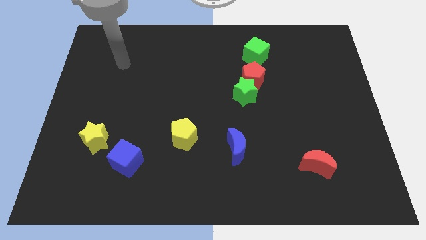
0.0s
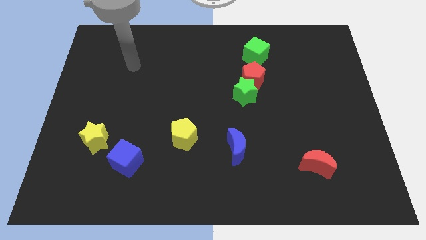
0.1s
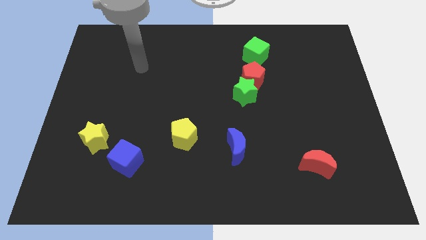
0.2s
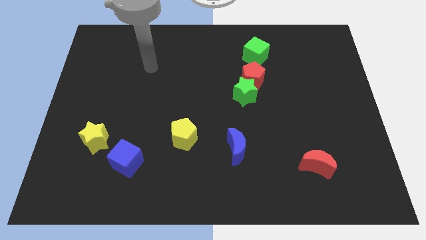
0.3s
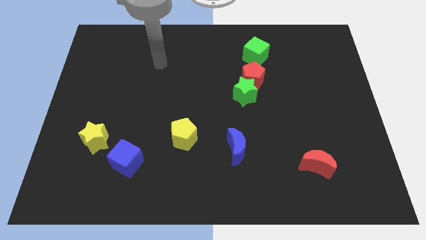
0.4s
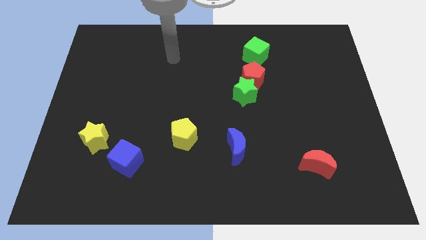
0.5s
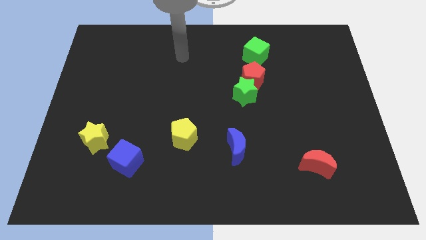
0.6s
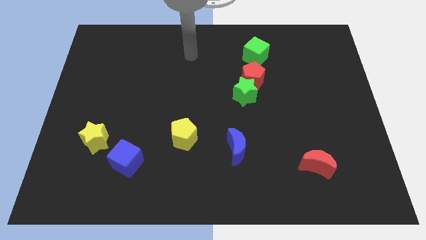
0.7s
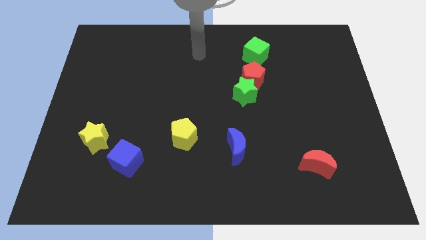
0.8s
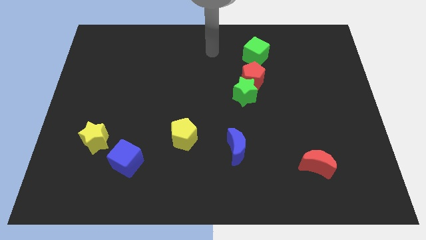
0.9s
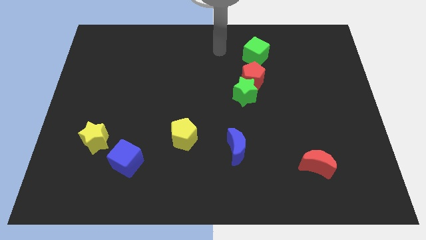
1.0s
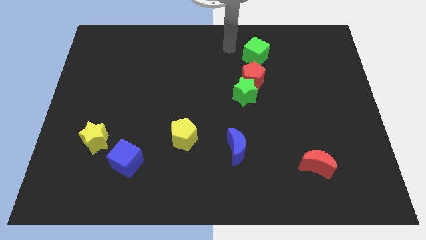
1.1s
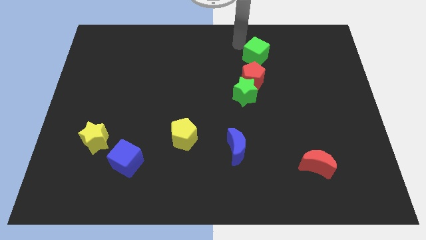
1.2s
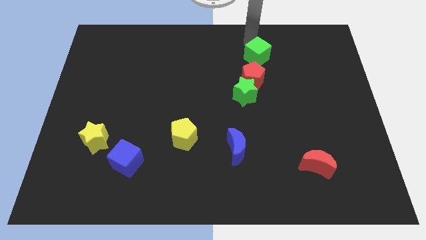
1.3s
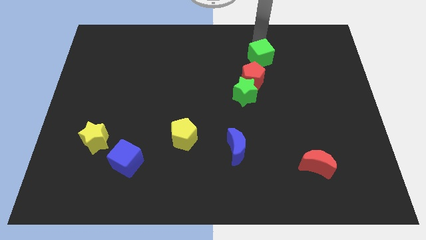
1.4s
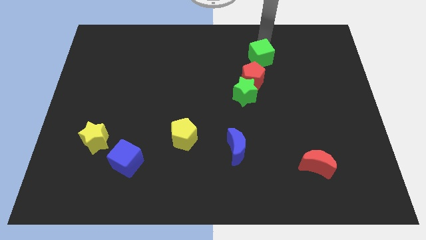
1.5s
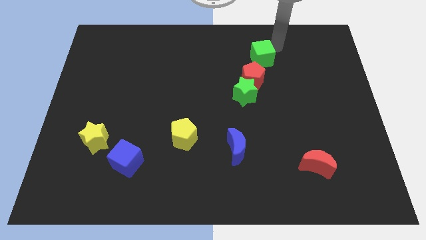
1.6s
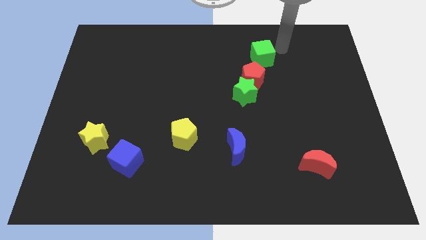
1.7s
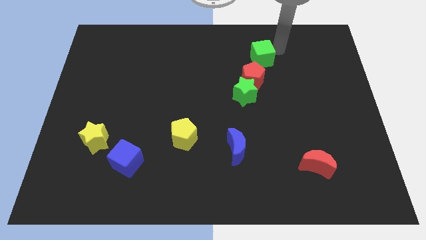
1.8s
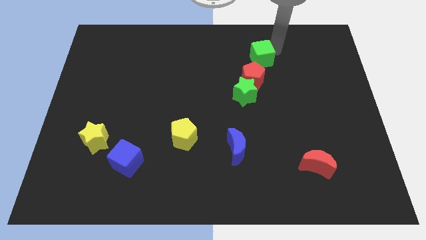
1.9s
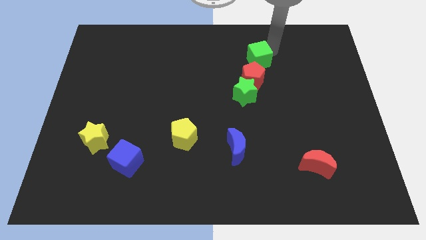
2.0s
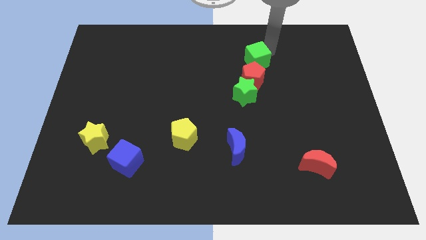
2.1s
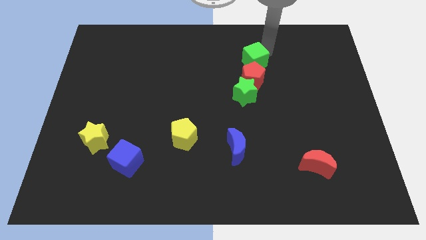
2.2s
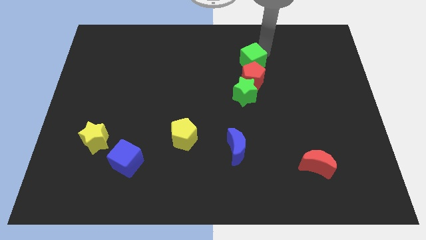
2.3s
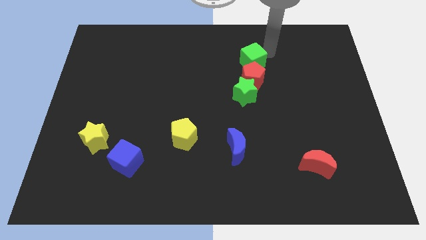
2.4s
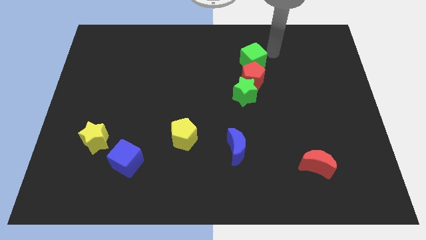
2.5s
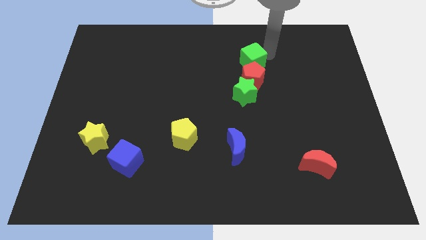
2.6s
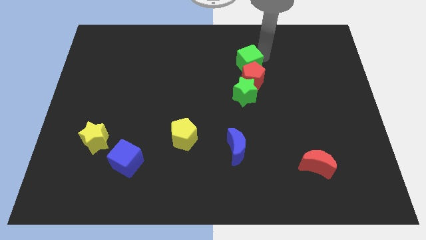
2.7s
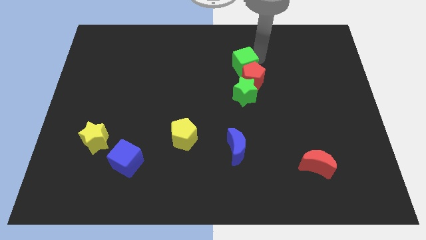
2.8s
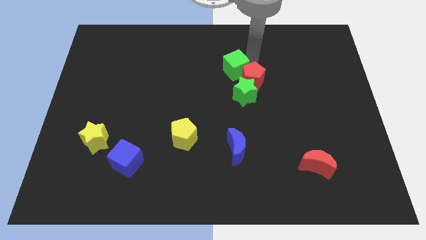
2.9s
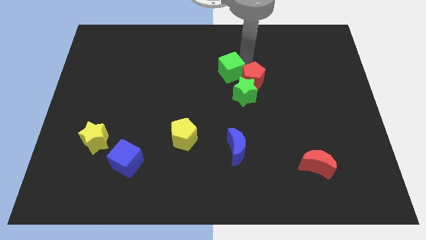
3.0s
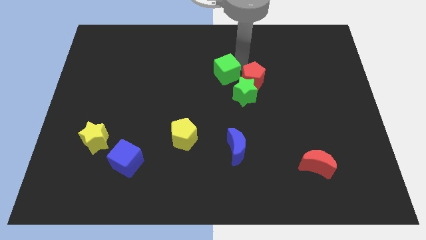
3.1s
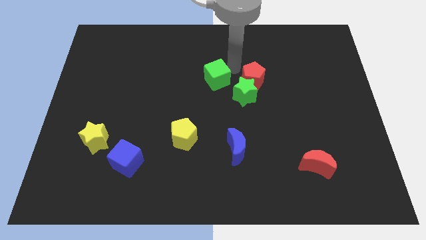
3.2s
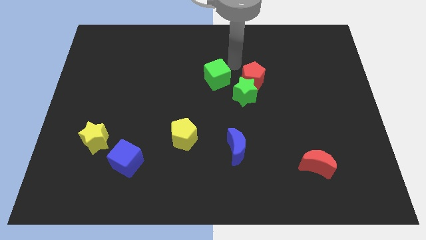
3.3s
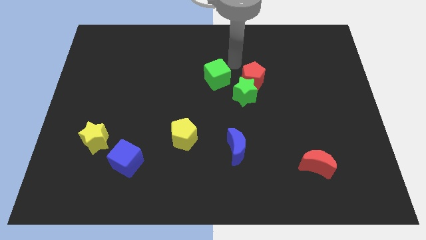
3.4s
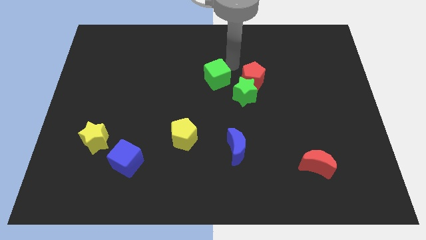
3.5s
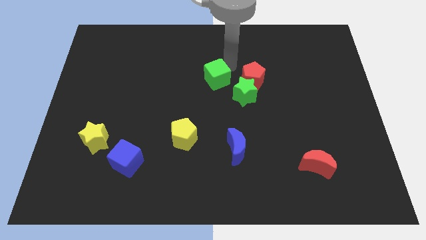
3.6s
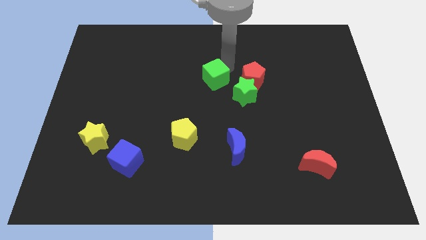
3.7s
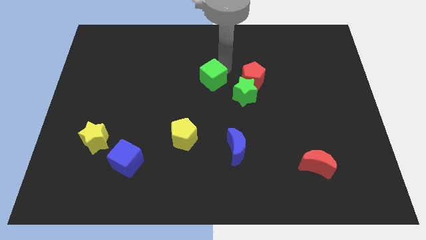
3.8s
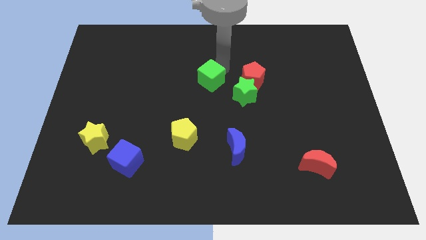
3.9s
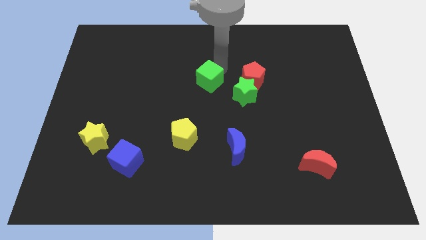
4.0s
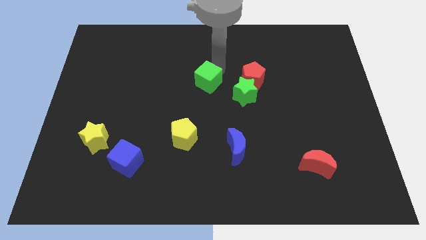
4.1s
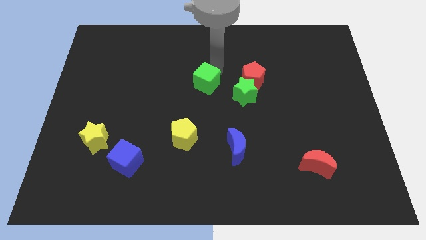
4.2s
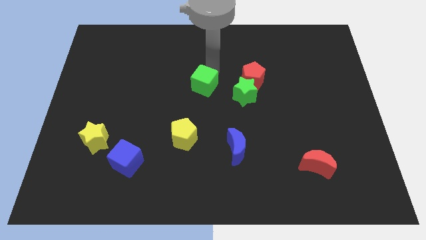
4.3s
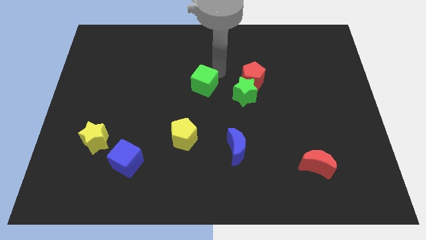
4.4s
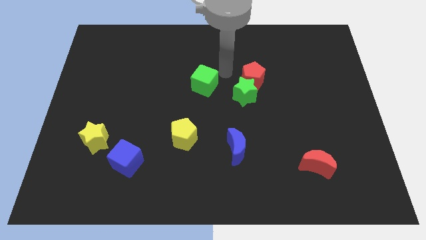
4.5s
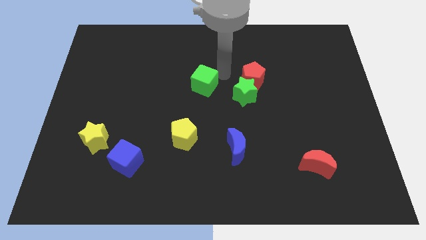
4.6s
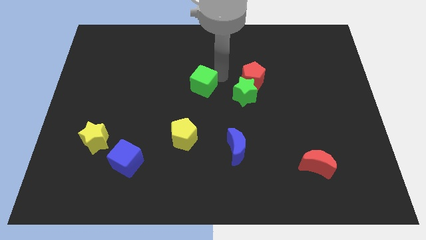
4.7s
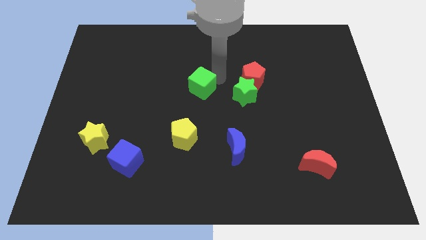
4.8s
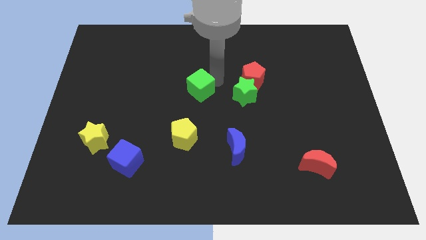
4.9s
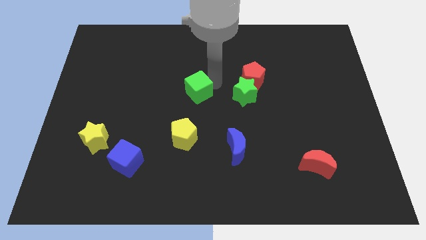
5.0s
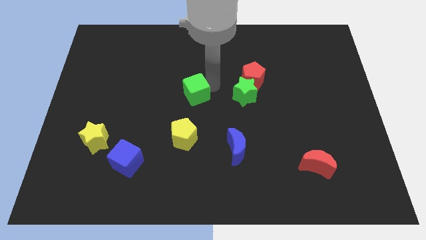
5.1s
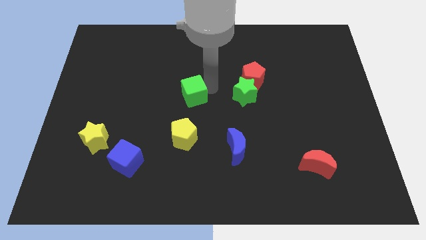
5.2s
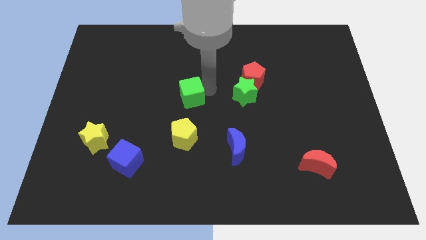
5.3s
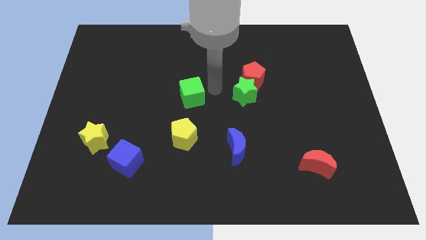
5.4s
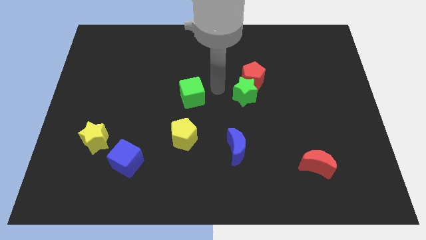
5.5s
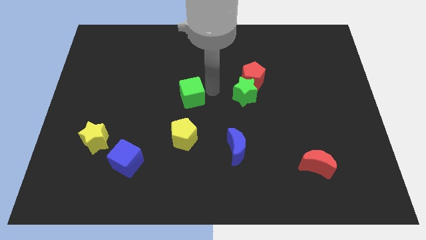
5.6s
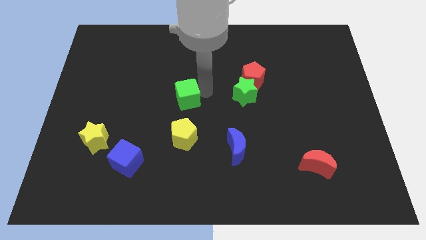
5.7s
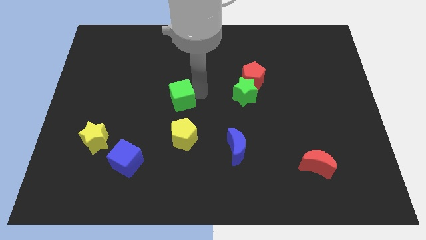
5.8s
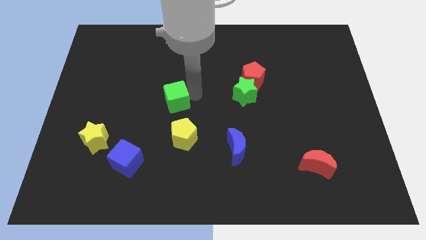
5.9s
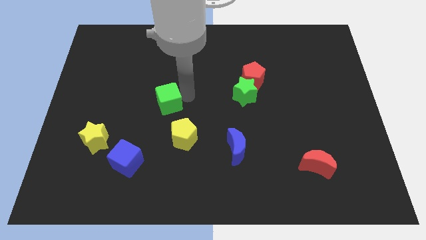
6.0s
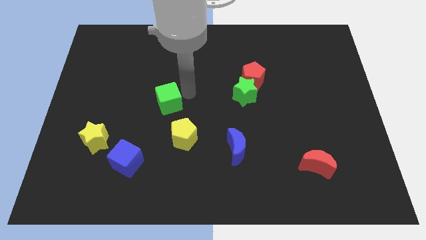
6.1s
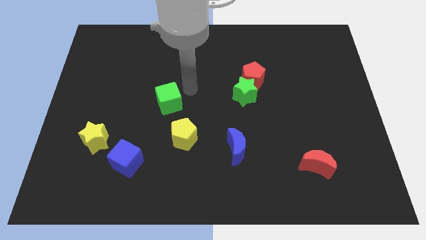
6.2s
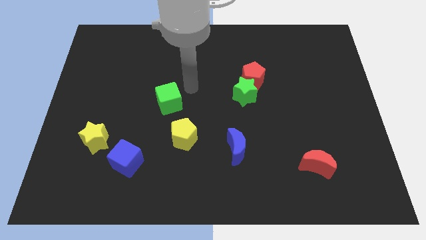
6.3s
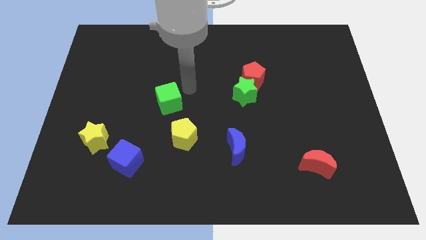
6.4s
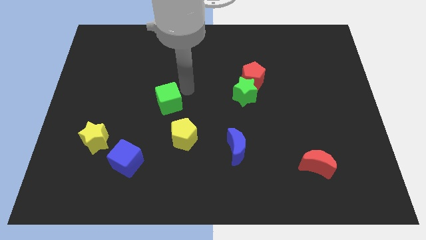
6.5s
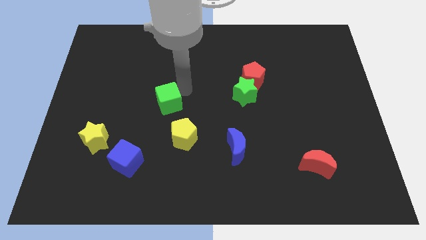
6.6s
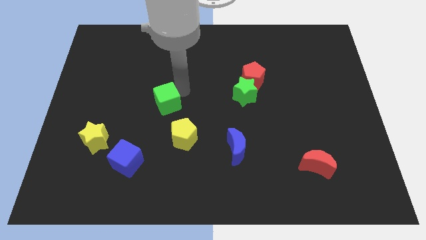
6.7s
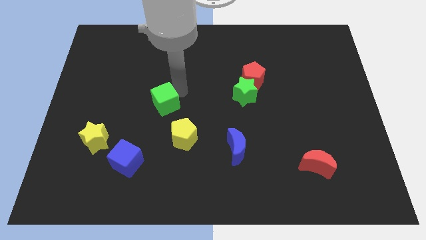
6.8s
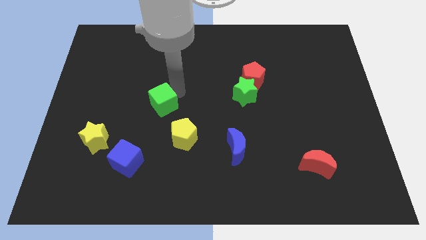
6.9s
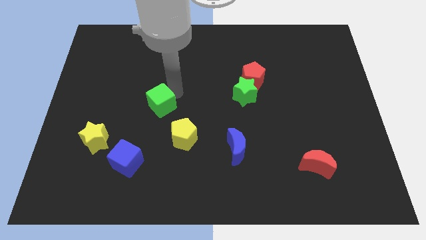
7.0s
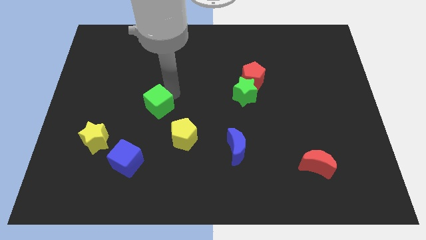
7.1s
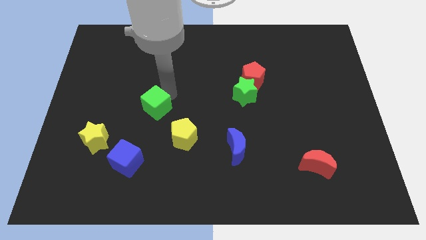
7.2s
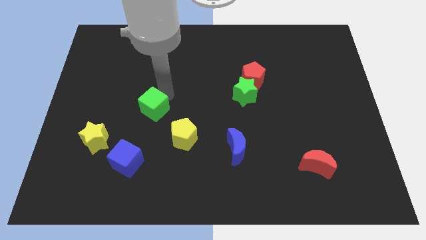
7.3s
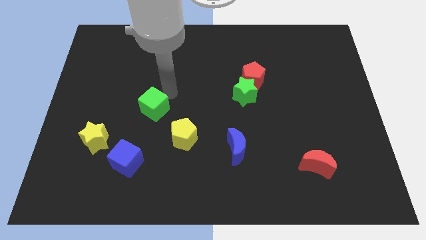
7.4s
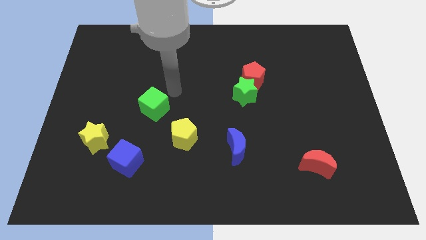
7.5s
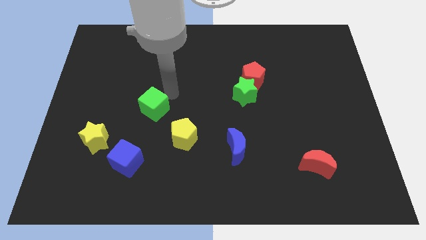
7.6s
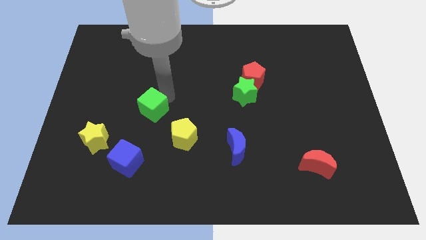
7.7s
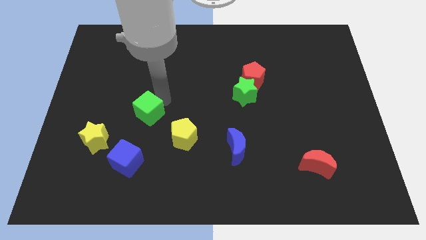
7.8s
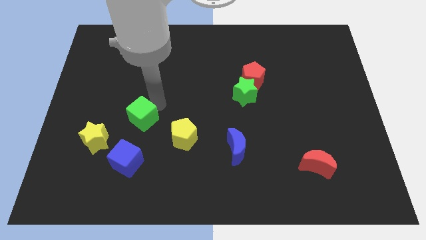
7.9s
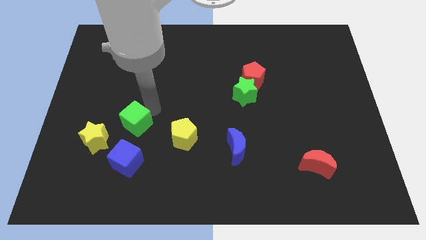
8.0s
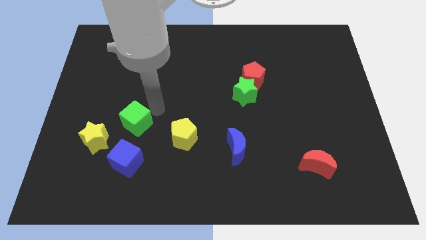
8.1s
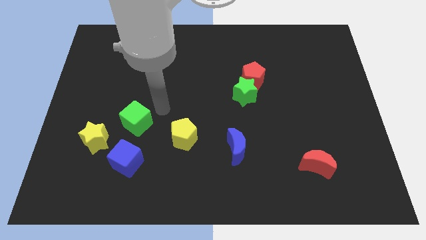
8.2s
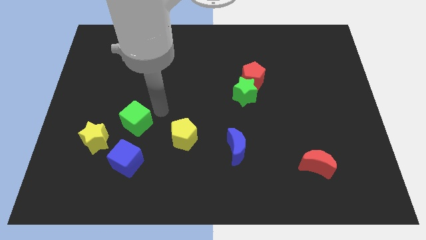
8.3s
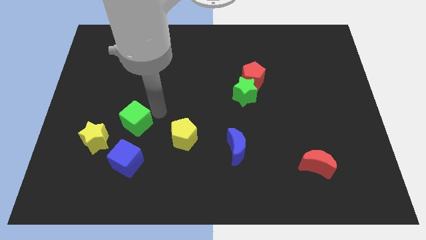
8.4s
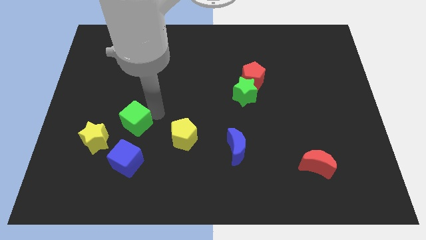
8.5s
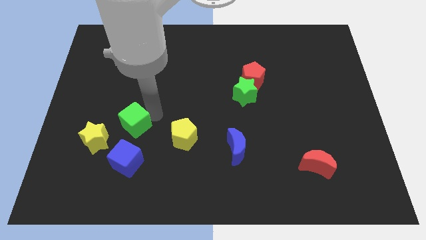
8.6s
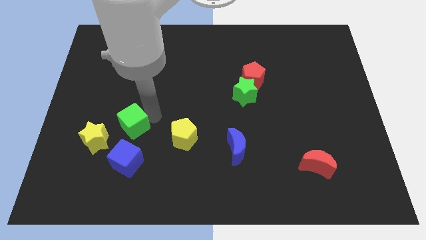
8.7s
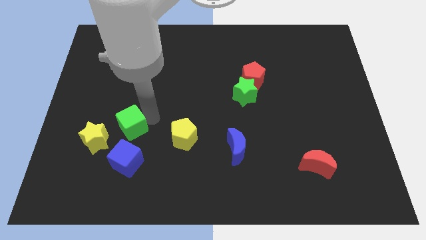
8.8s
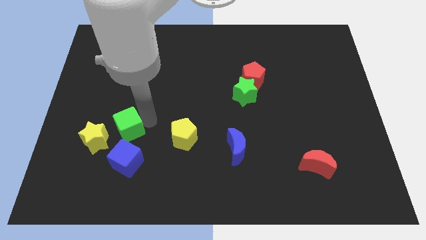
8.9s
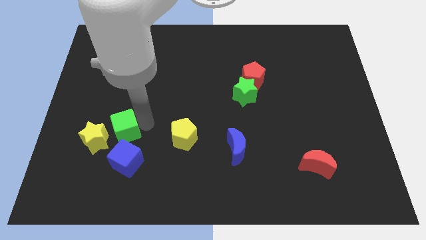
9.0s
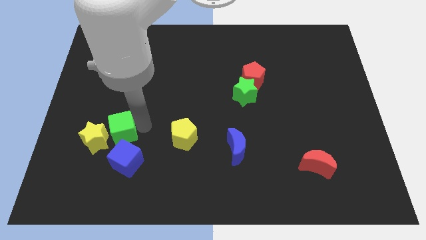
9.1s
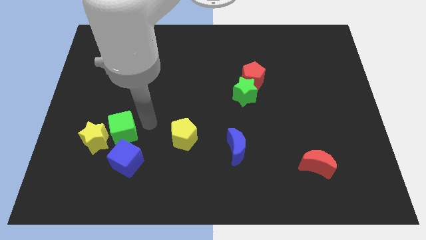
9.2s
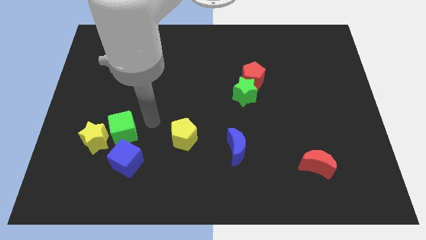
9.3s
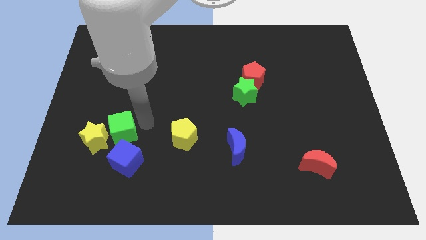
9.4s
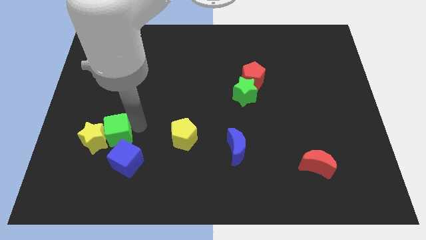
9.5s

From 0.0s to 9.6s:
push the green cube close to the yellow star
